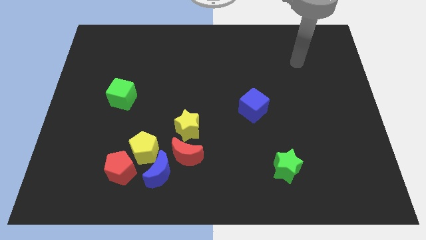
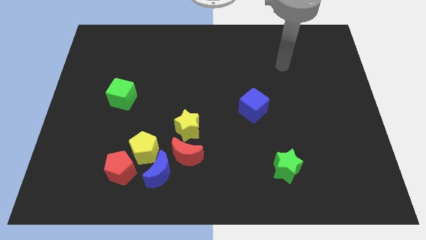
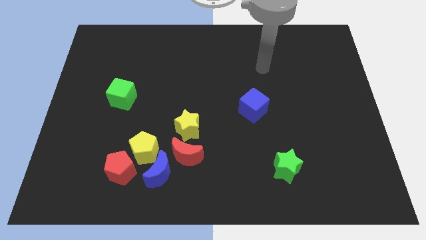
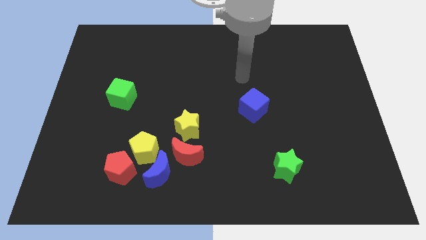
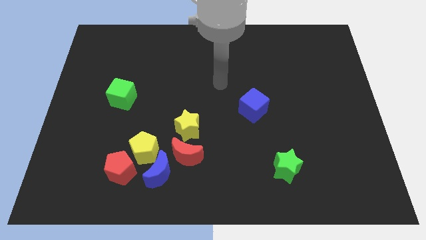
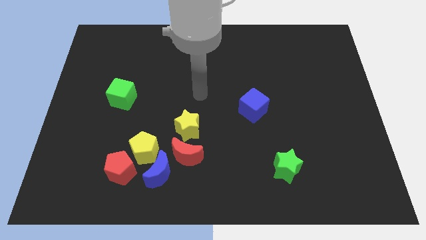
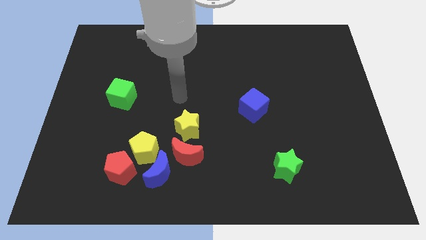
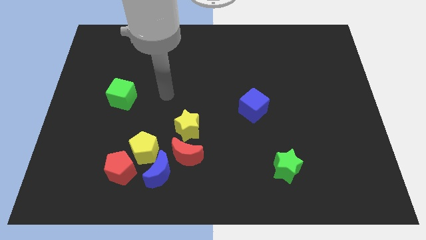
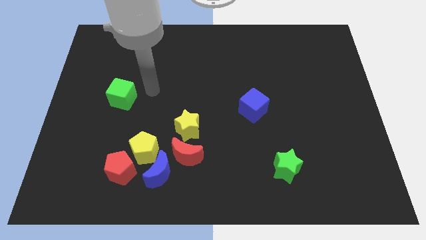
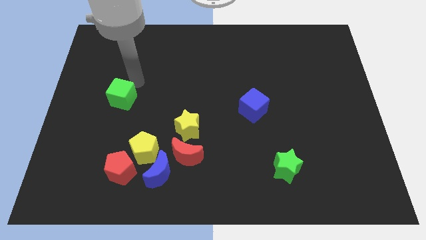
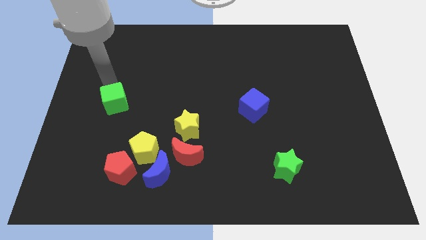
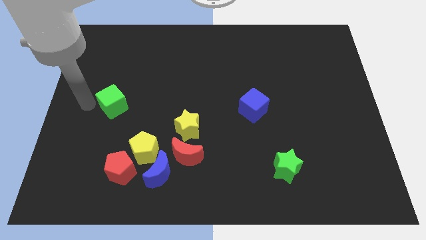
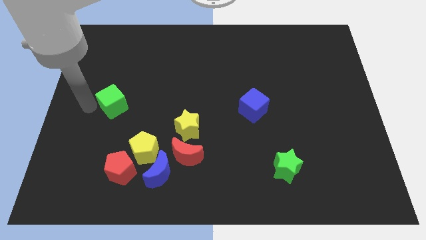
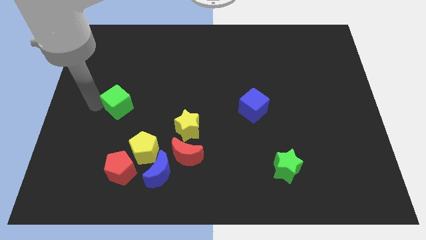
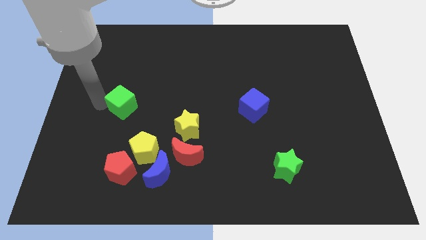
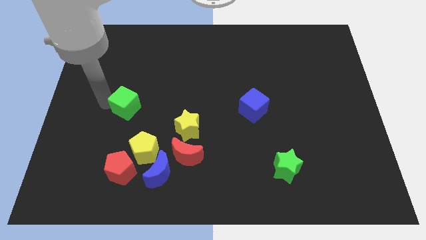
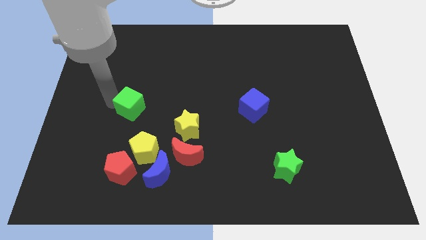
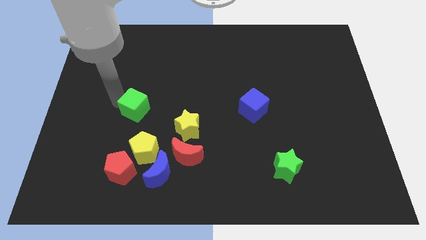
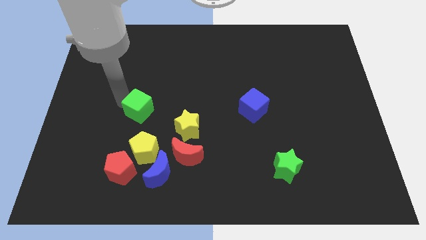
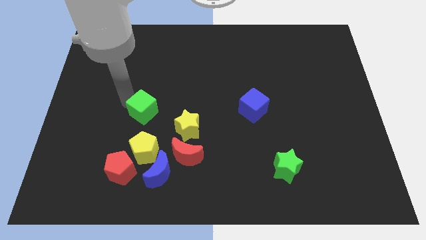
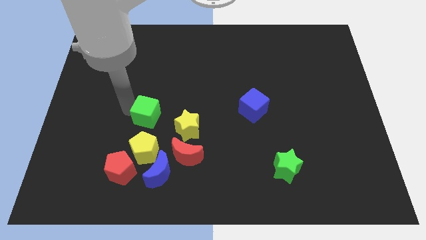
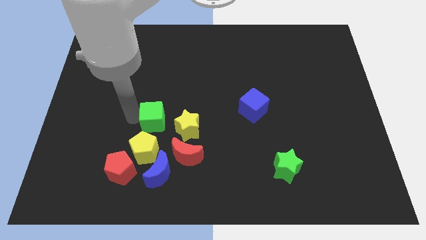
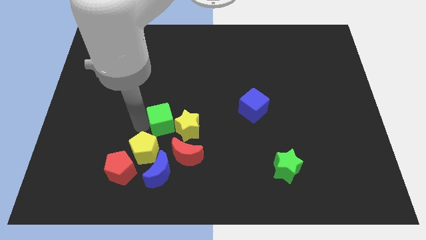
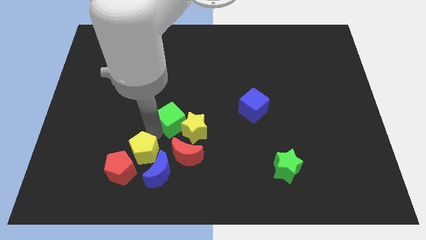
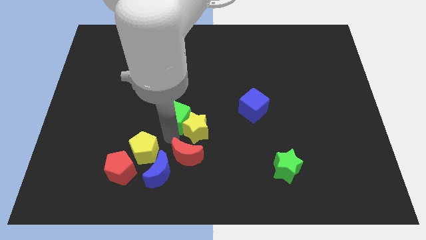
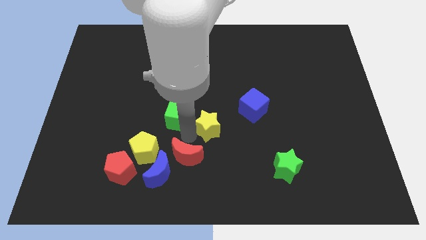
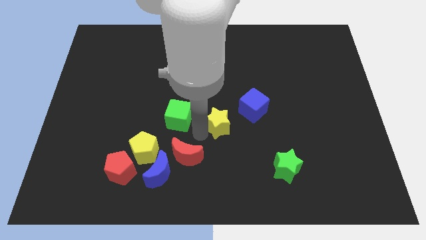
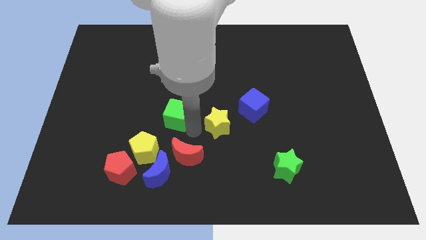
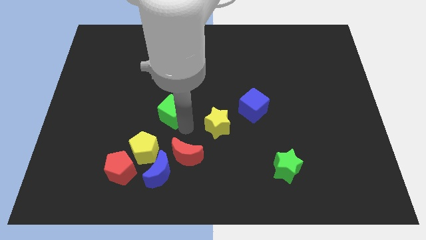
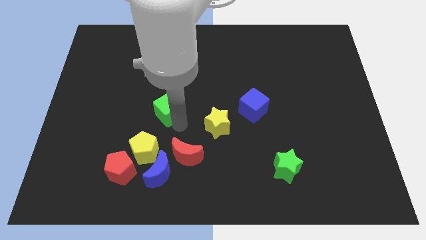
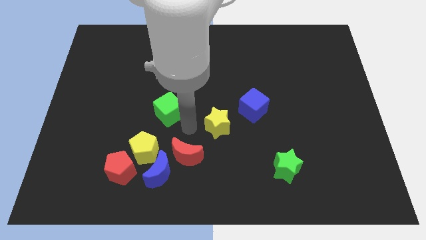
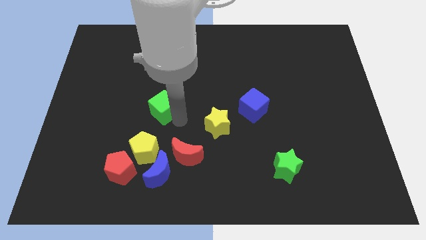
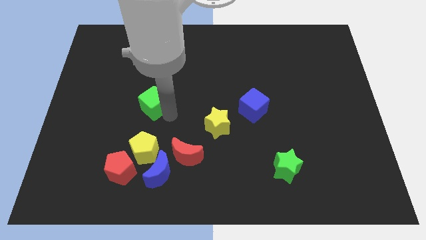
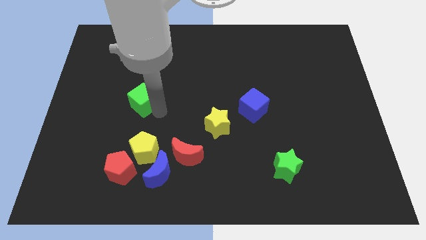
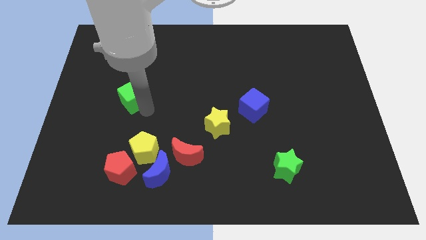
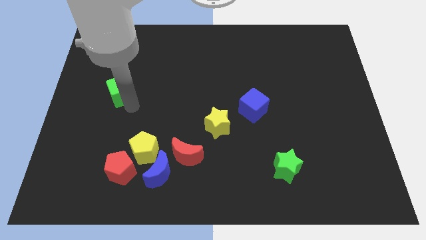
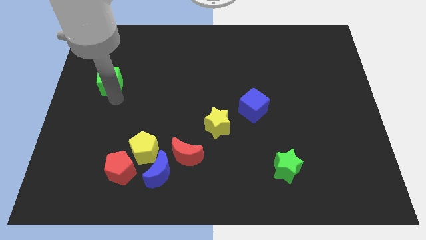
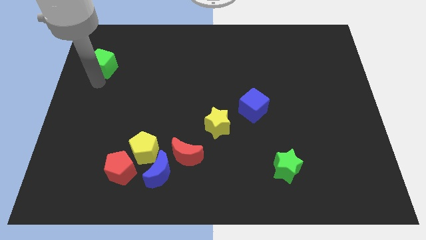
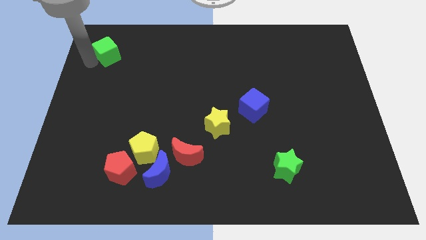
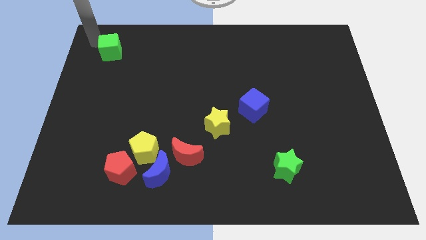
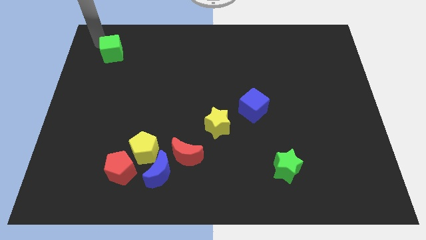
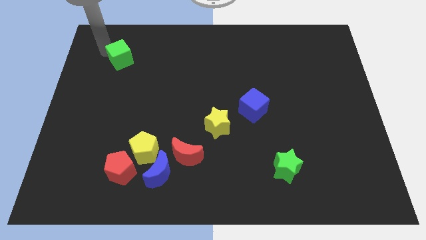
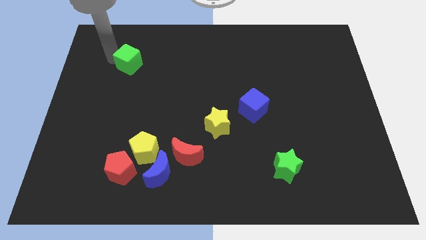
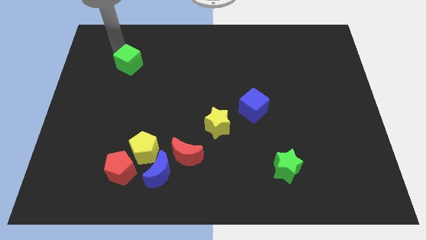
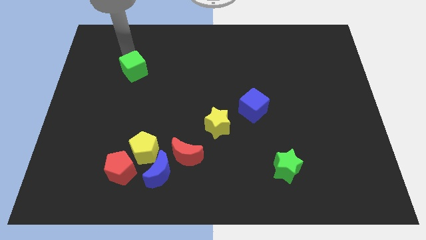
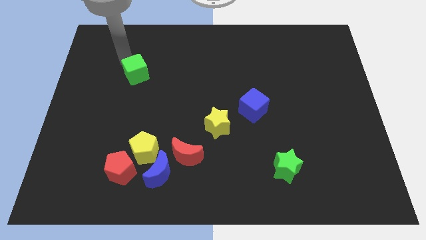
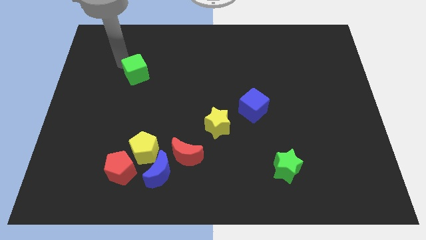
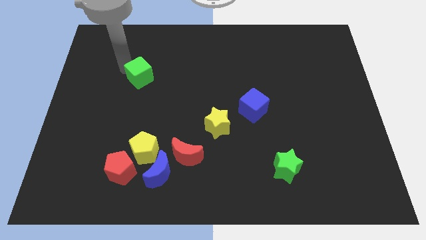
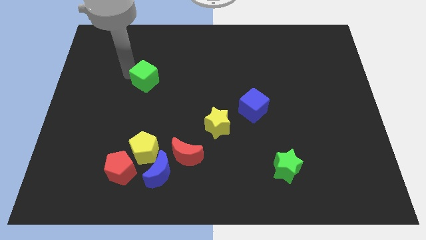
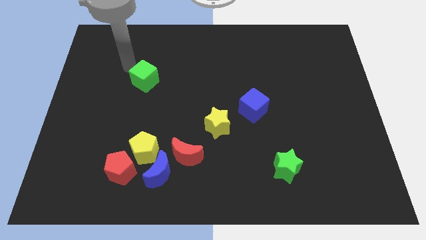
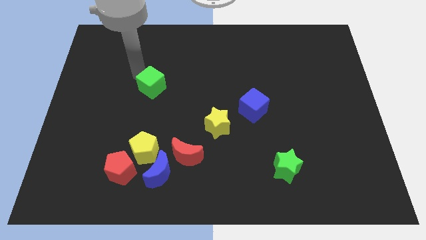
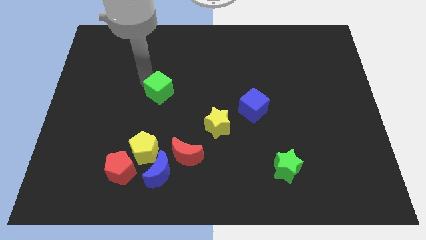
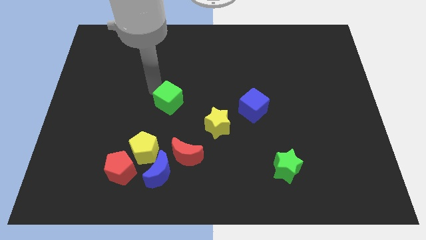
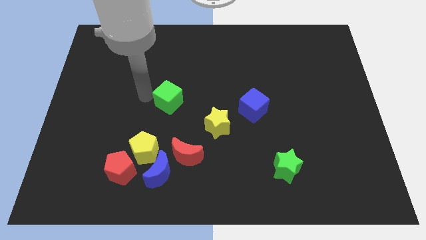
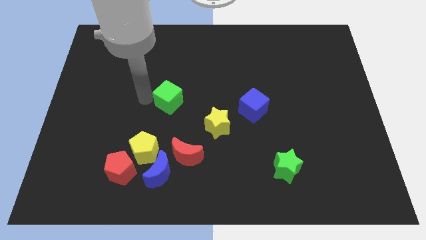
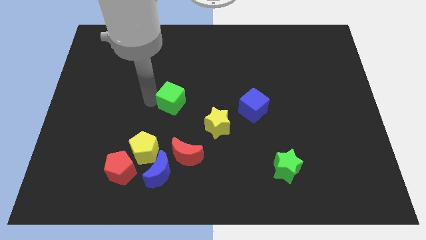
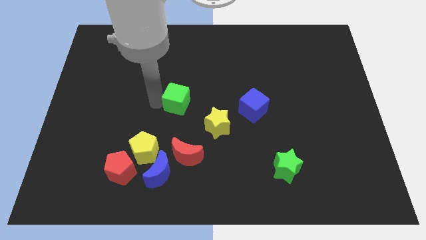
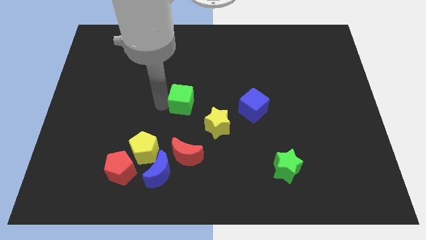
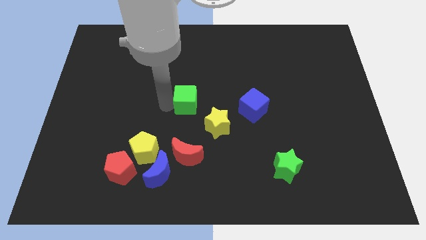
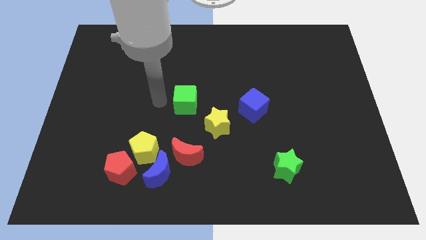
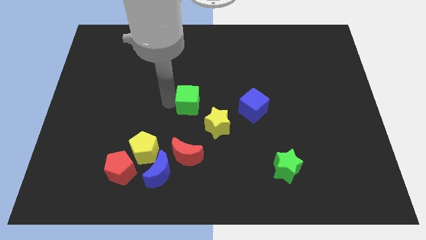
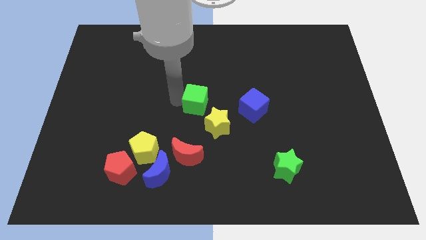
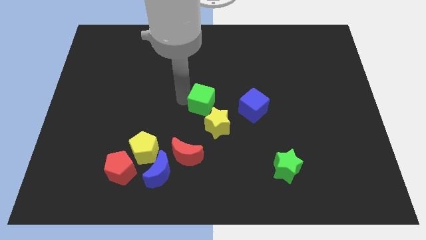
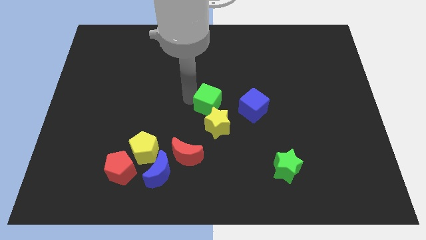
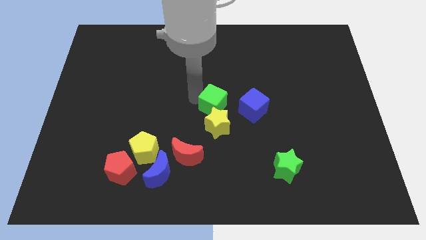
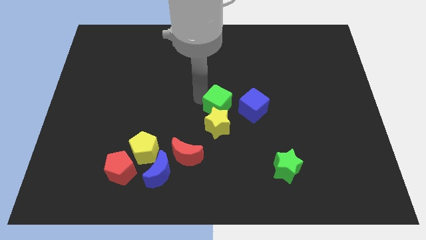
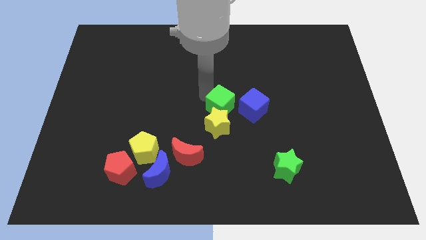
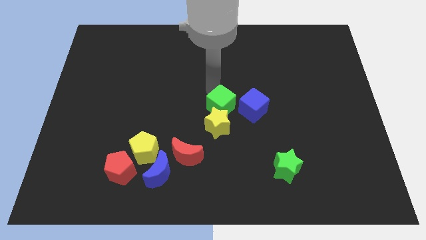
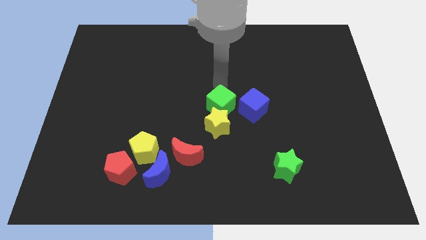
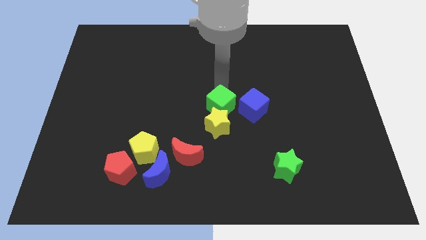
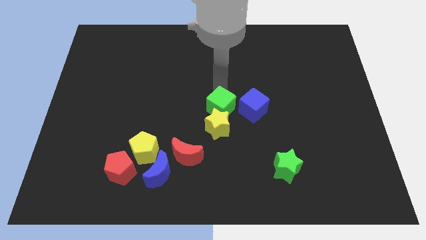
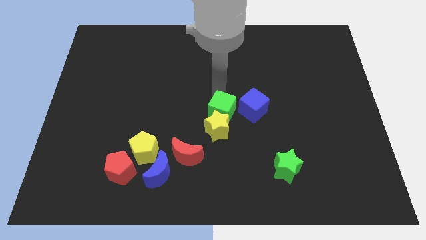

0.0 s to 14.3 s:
move the green cube to the bottom left of the blue cube
